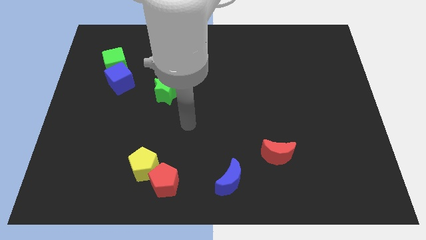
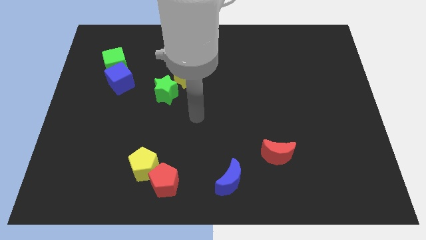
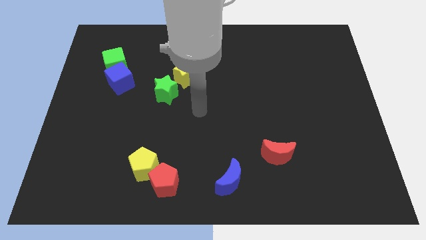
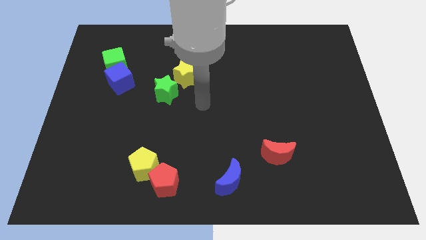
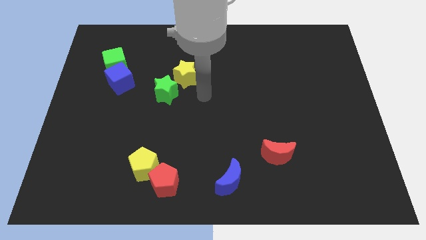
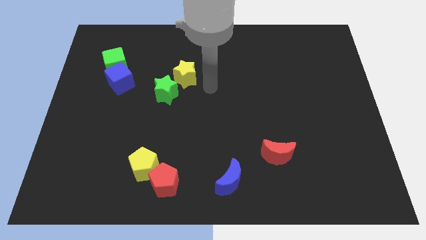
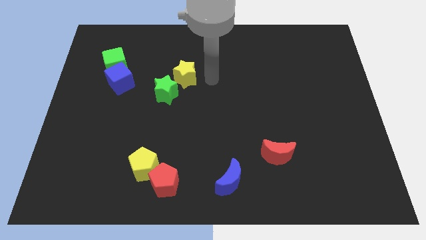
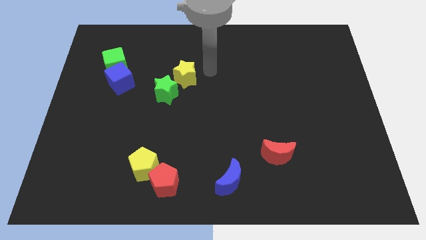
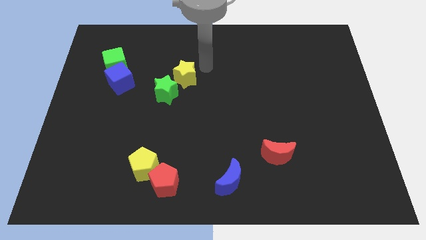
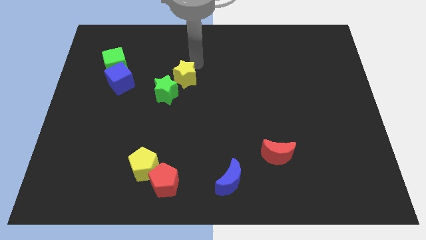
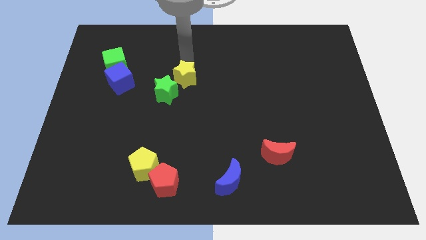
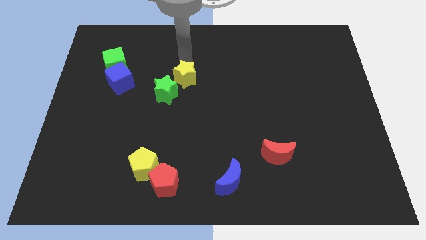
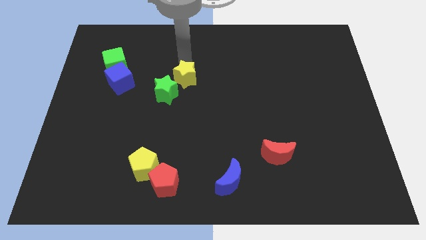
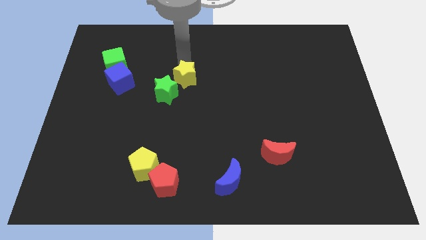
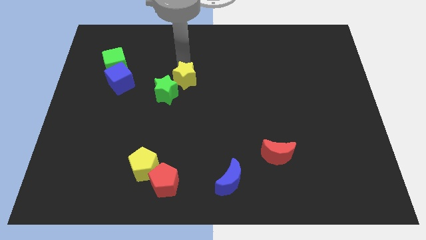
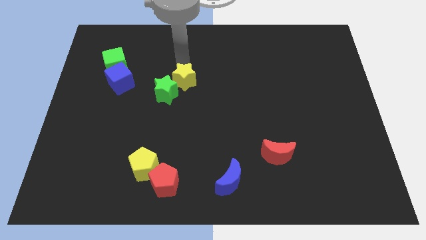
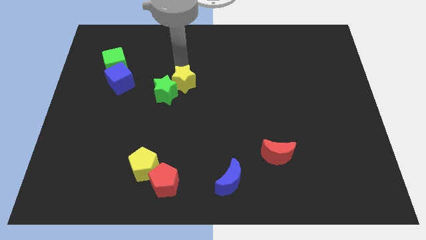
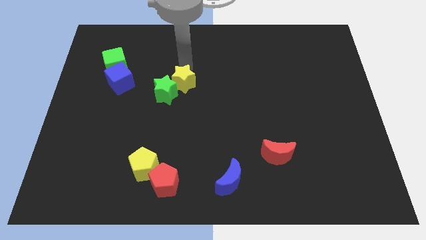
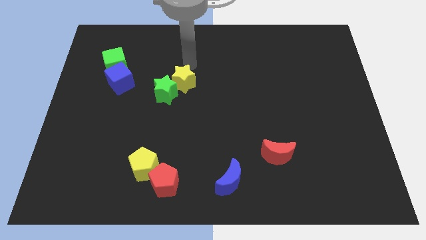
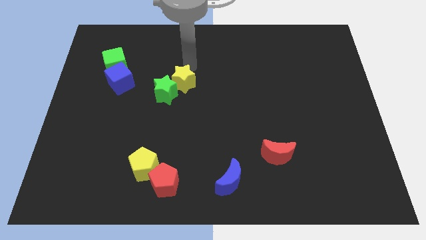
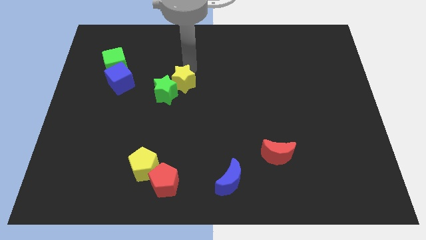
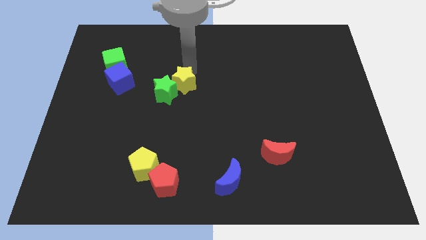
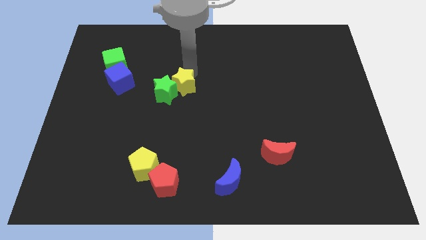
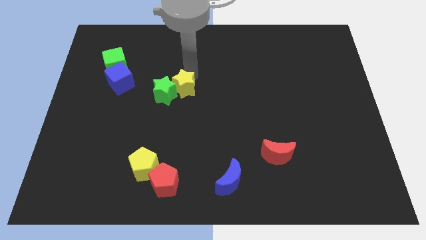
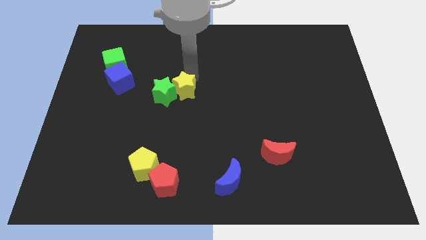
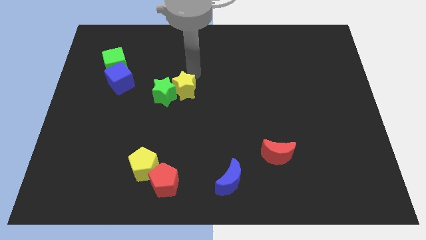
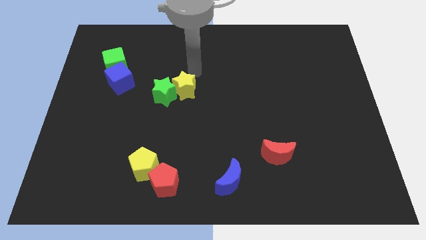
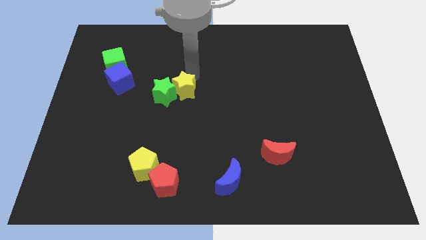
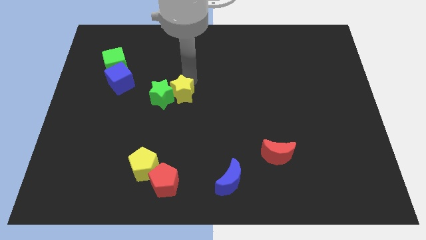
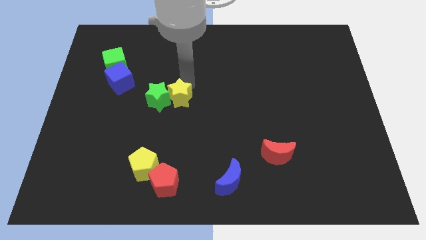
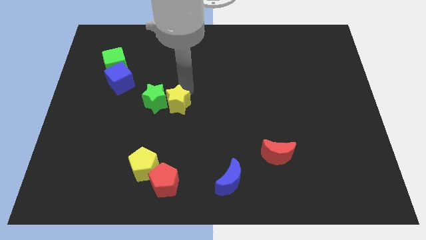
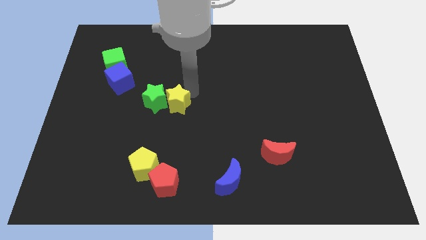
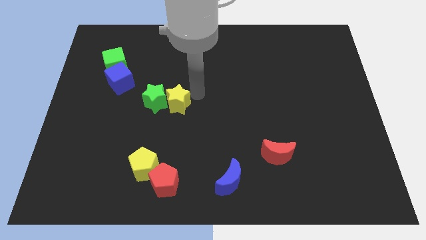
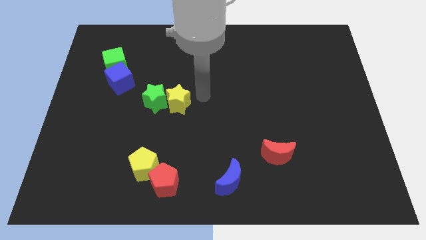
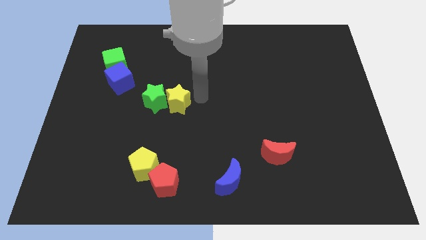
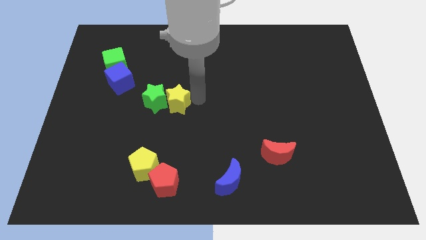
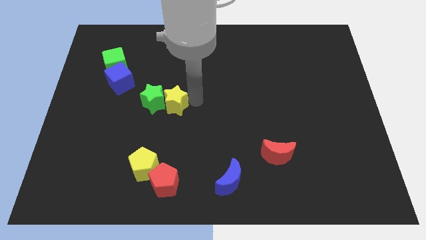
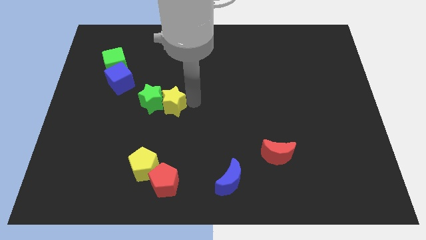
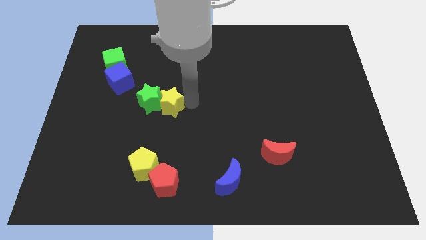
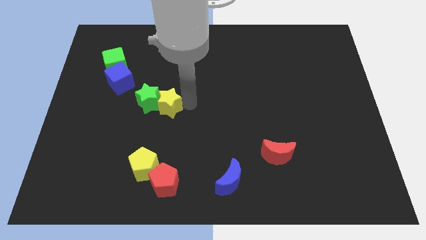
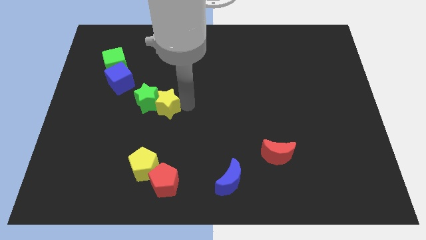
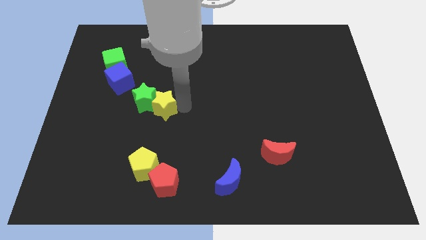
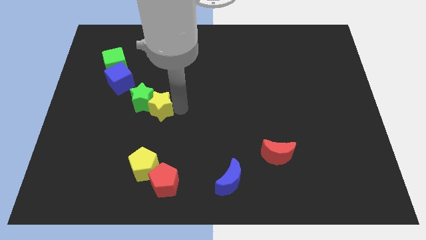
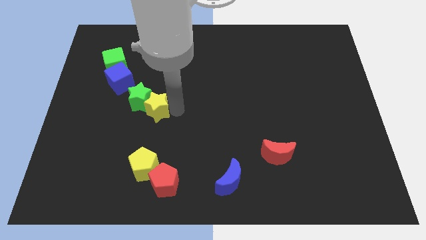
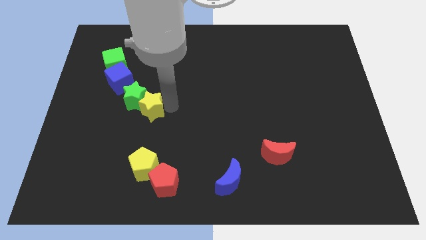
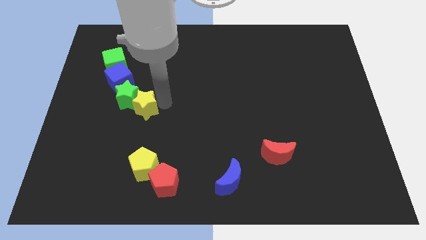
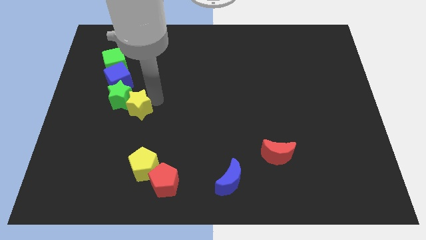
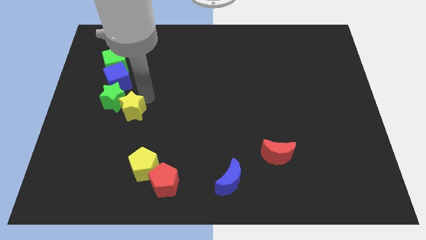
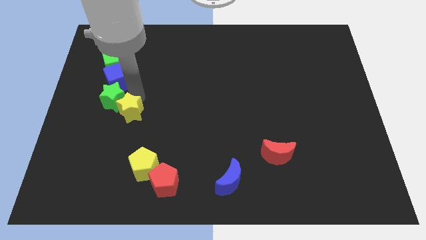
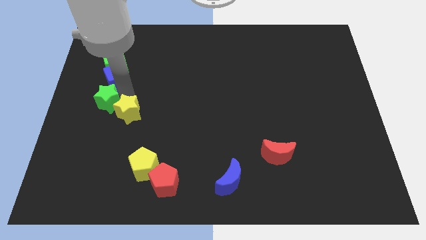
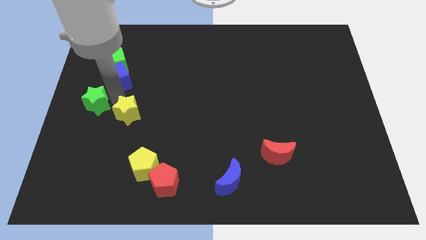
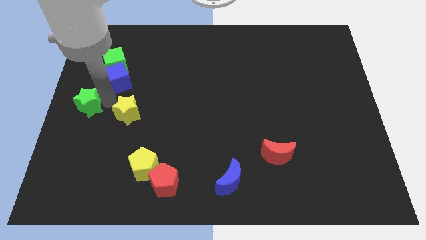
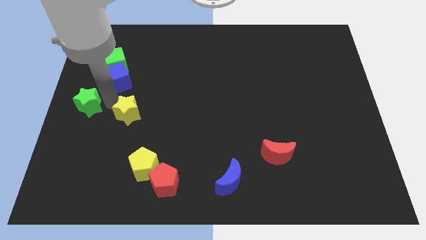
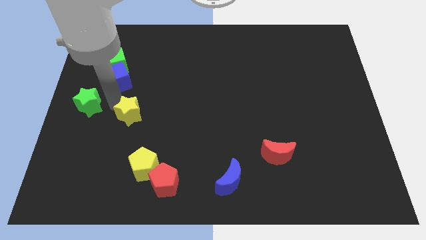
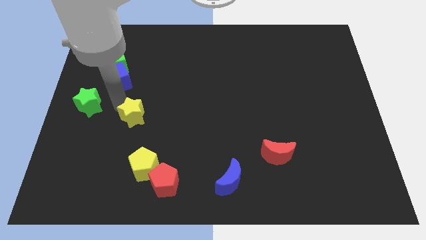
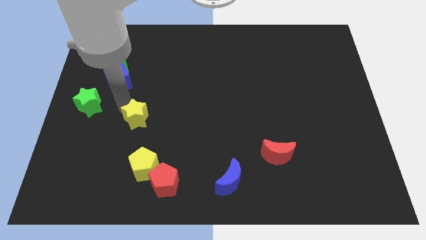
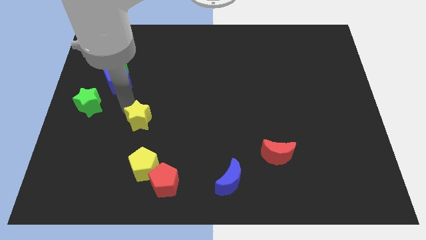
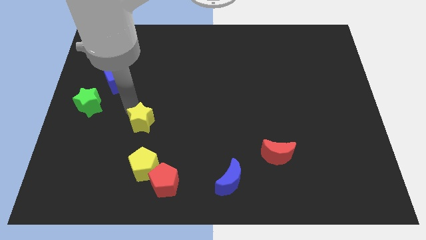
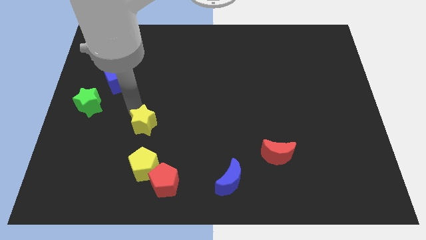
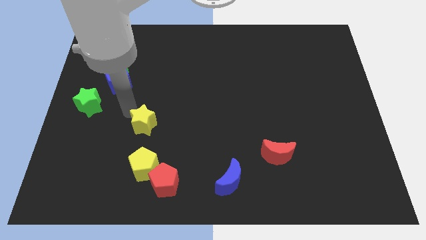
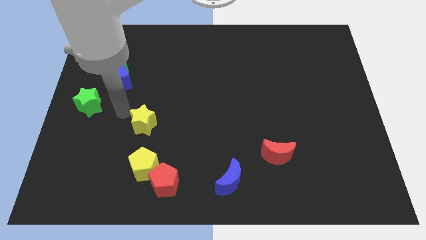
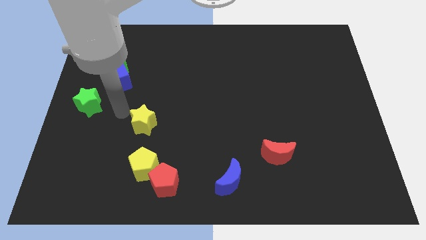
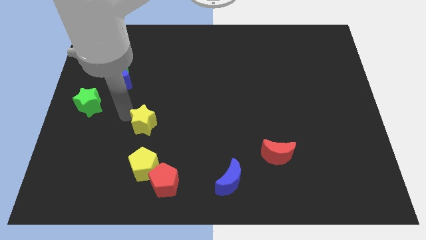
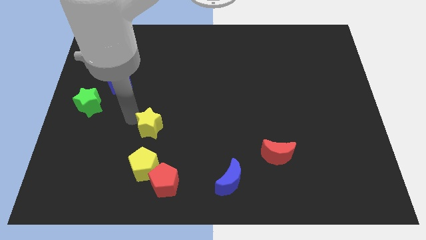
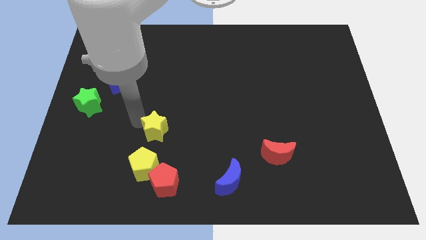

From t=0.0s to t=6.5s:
put the yellow star above the red pentagon

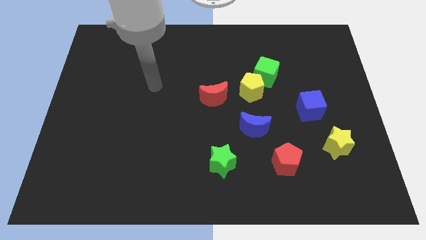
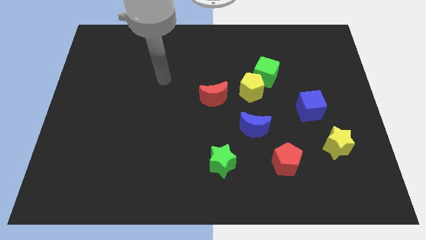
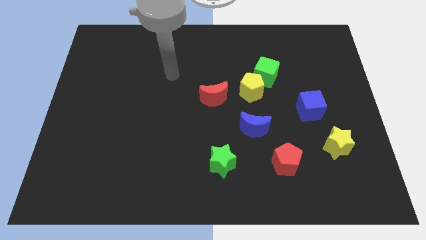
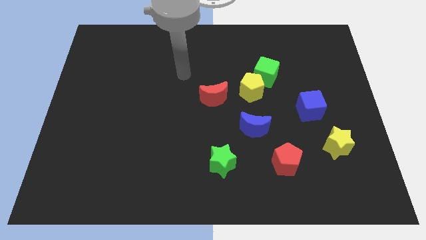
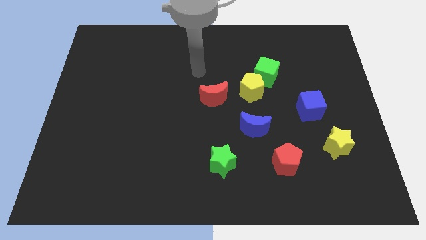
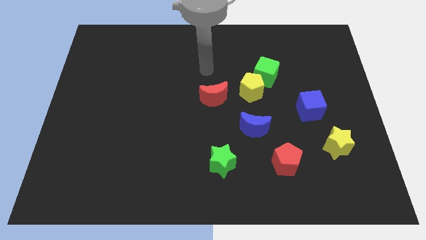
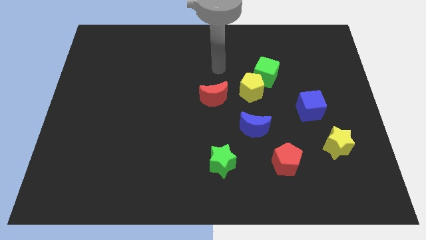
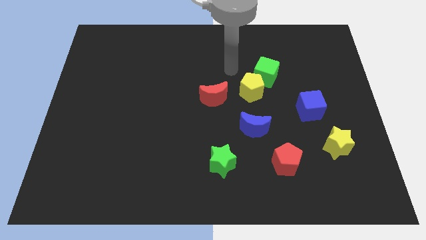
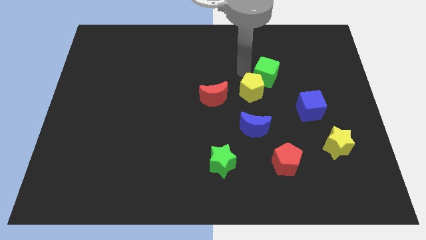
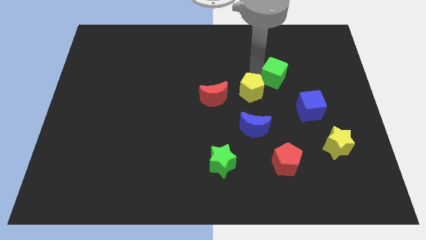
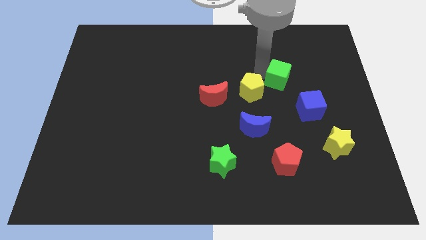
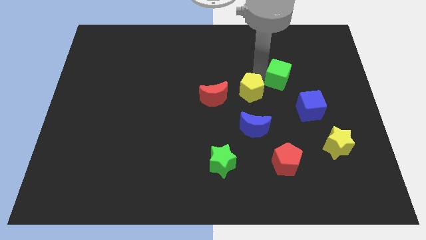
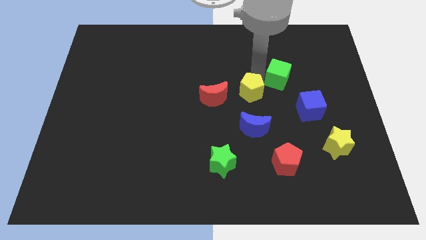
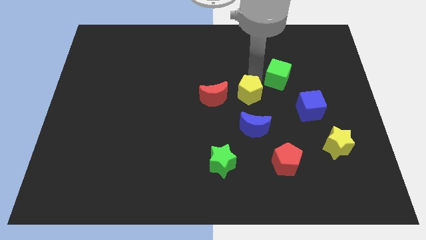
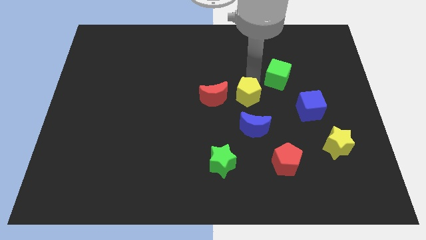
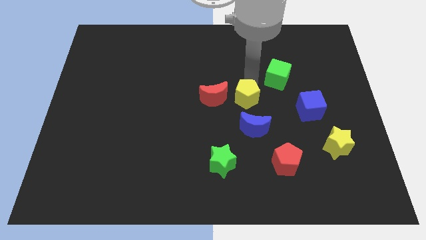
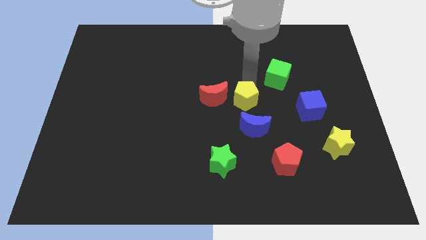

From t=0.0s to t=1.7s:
move the yellow pentagon to the bottom right of the red moon
